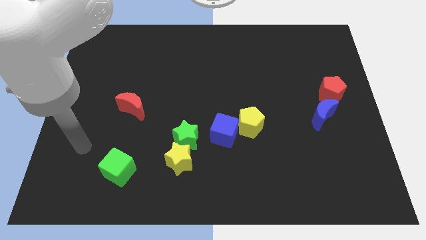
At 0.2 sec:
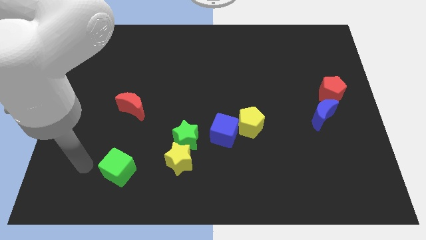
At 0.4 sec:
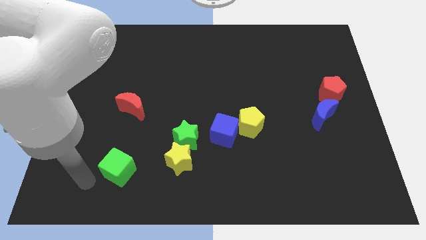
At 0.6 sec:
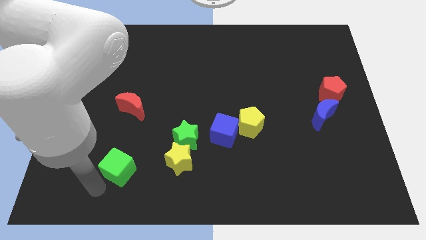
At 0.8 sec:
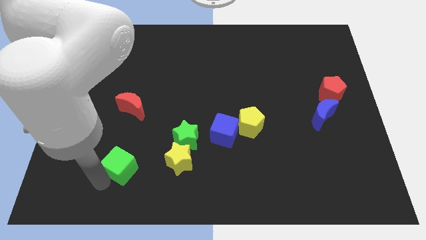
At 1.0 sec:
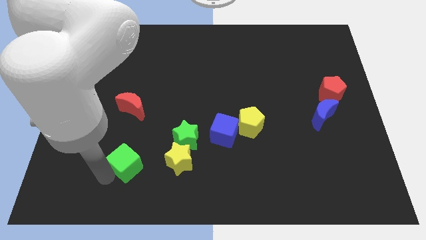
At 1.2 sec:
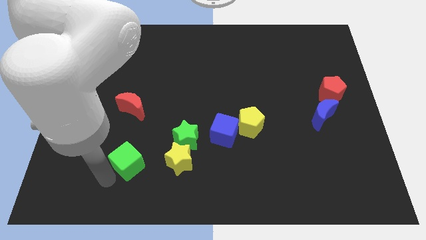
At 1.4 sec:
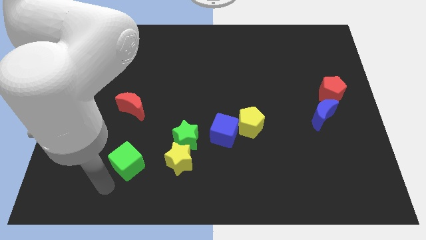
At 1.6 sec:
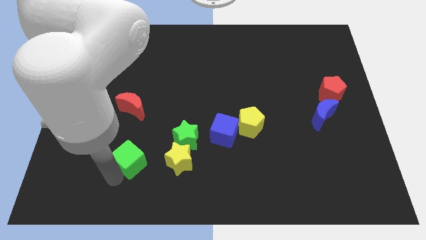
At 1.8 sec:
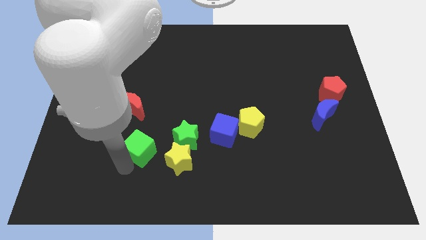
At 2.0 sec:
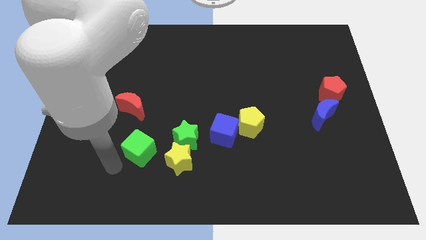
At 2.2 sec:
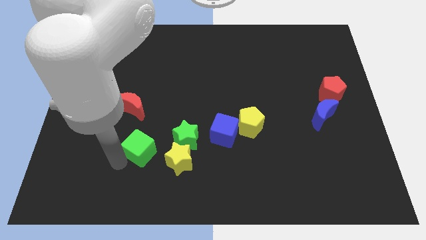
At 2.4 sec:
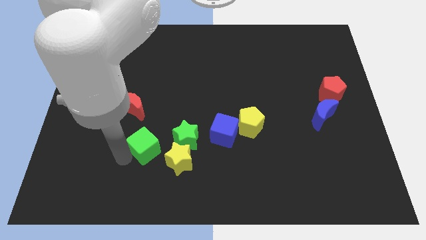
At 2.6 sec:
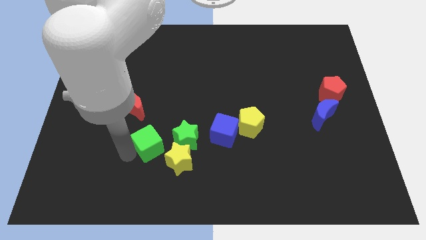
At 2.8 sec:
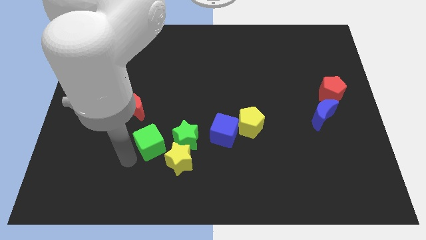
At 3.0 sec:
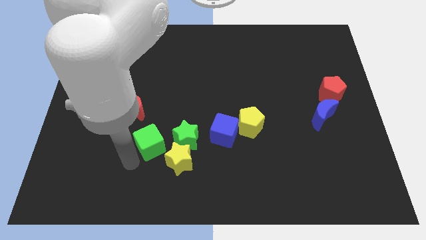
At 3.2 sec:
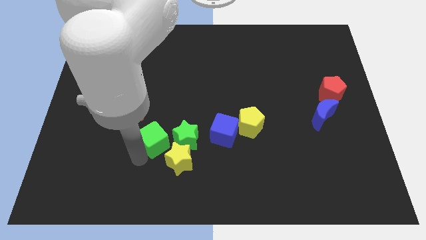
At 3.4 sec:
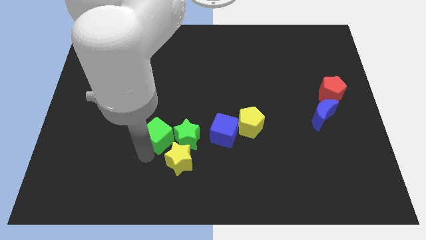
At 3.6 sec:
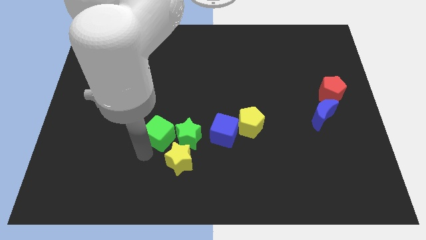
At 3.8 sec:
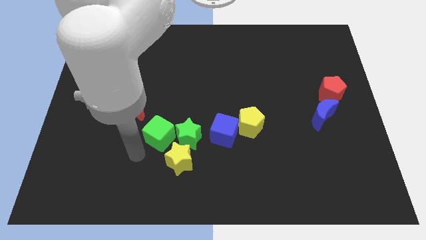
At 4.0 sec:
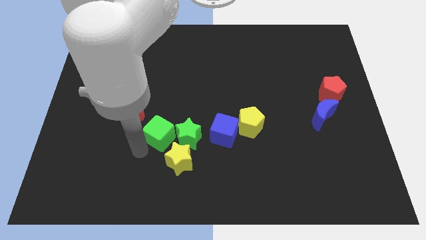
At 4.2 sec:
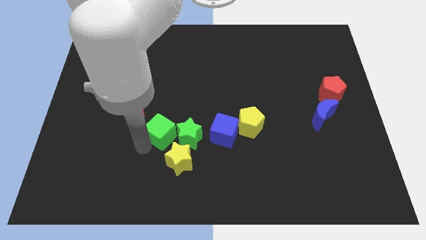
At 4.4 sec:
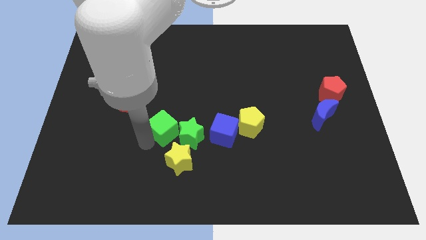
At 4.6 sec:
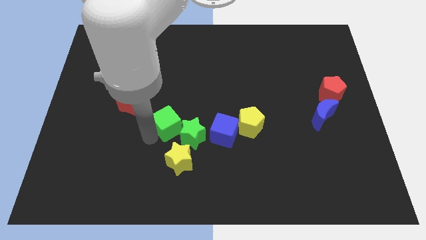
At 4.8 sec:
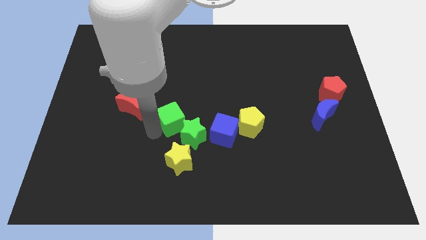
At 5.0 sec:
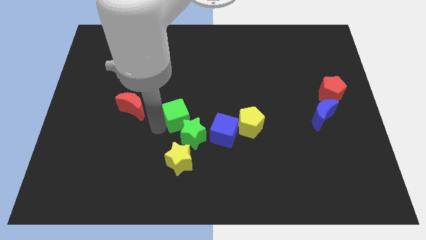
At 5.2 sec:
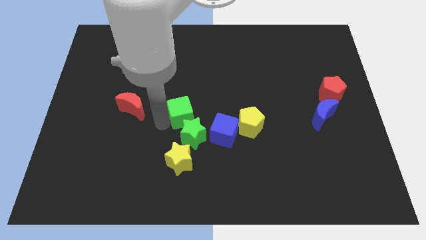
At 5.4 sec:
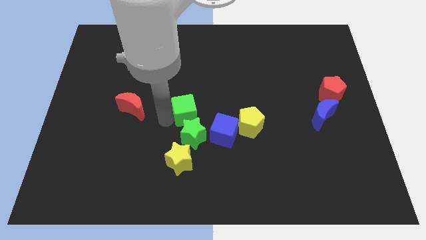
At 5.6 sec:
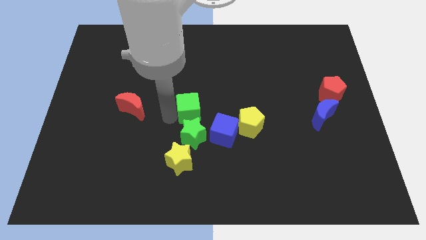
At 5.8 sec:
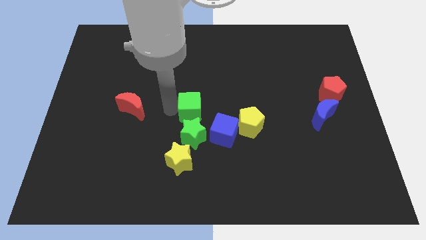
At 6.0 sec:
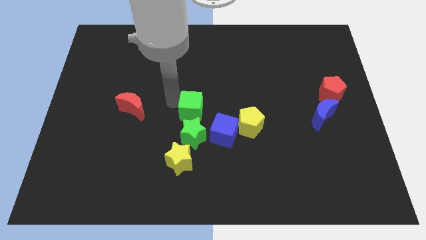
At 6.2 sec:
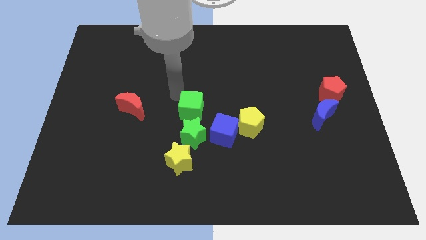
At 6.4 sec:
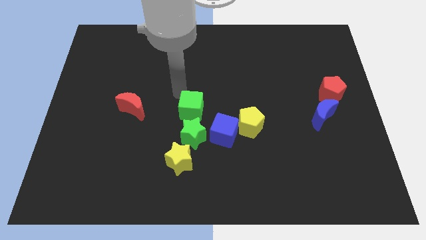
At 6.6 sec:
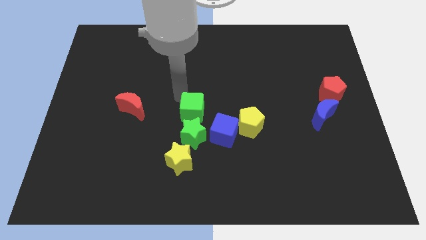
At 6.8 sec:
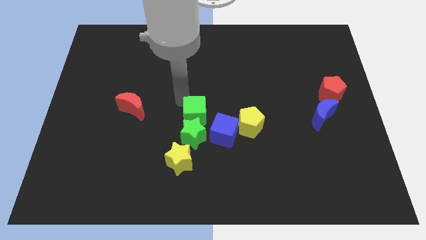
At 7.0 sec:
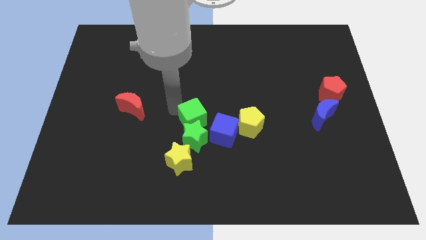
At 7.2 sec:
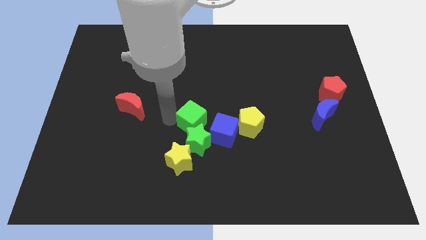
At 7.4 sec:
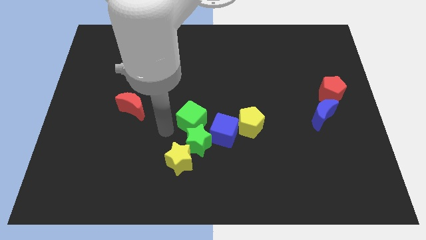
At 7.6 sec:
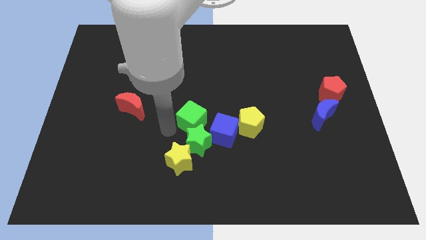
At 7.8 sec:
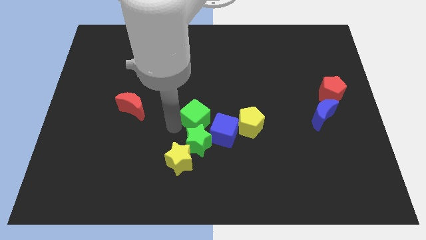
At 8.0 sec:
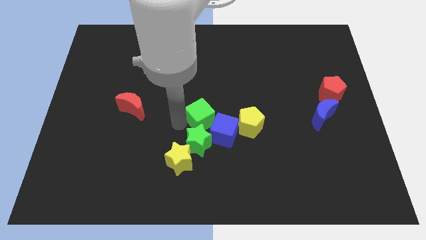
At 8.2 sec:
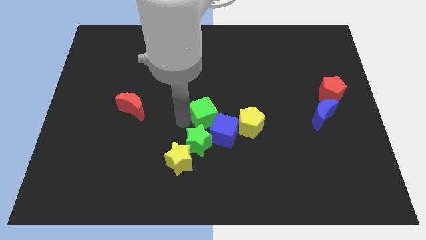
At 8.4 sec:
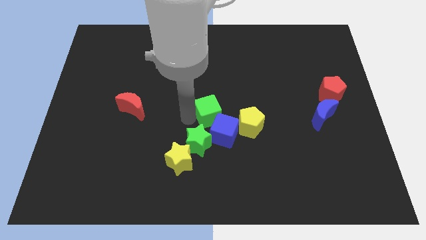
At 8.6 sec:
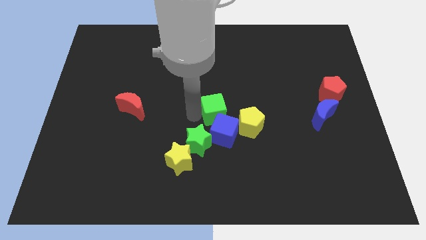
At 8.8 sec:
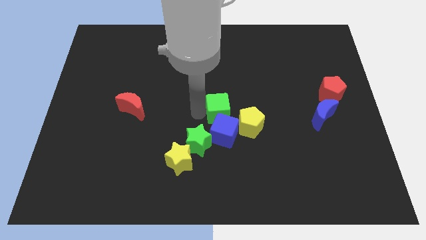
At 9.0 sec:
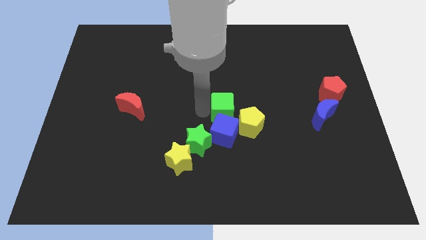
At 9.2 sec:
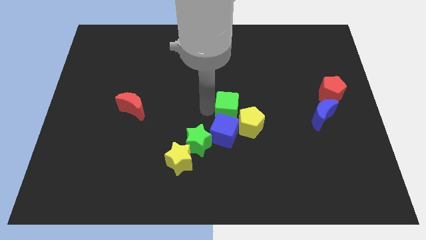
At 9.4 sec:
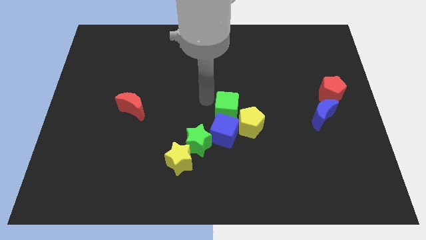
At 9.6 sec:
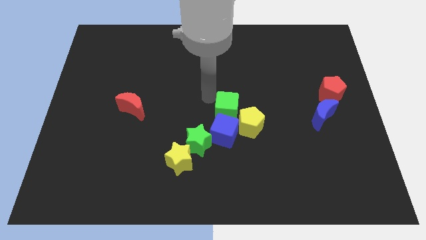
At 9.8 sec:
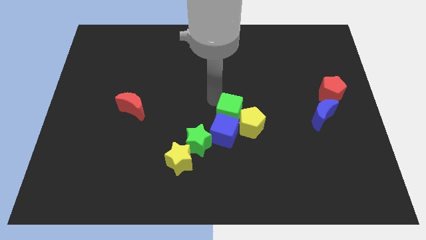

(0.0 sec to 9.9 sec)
move the green cube towards the yellow pentagon

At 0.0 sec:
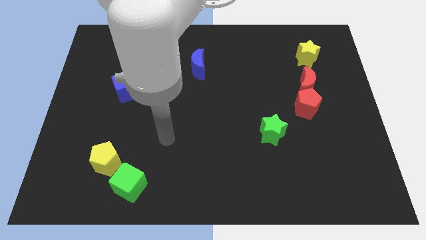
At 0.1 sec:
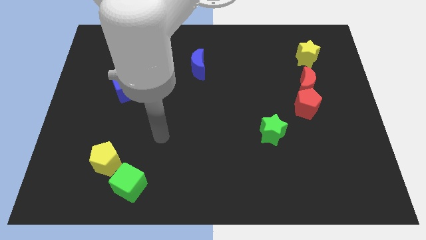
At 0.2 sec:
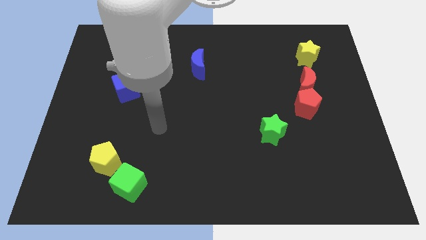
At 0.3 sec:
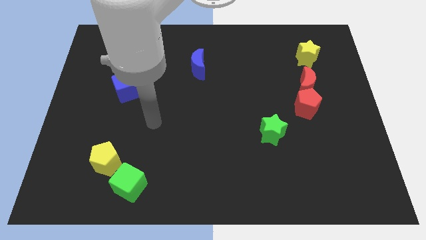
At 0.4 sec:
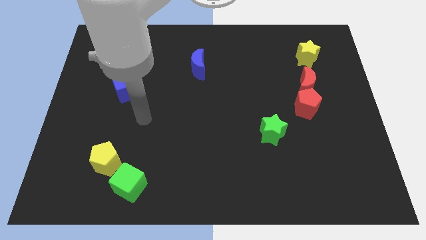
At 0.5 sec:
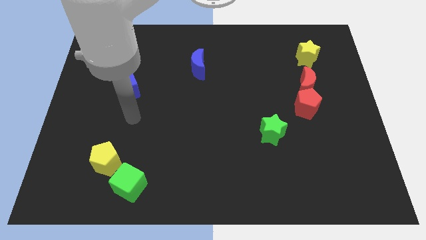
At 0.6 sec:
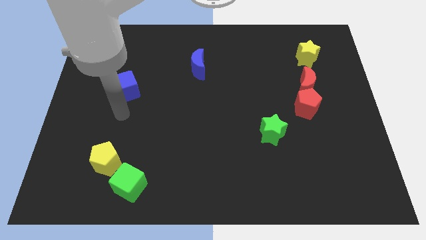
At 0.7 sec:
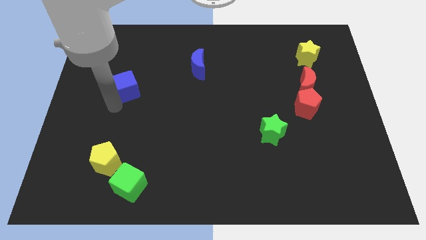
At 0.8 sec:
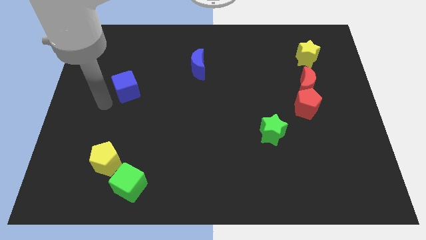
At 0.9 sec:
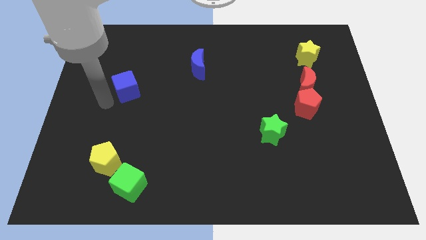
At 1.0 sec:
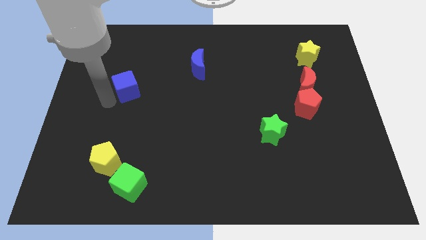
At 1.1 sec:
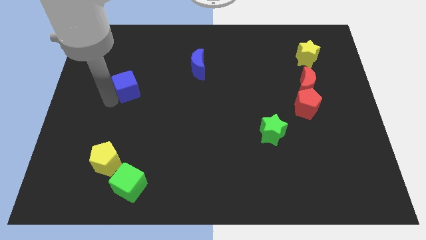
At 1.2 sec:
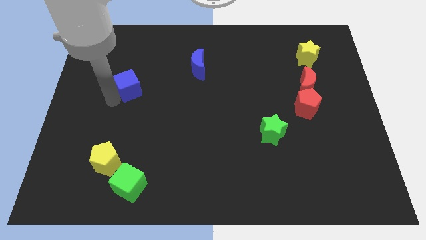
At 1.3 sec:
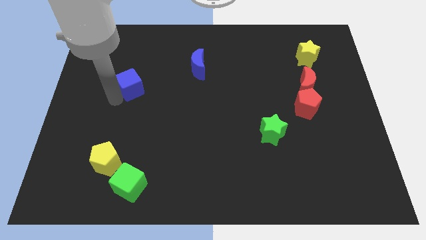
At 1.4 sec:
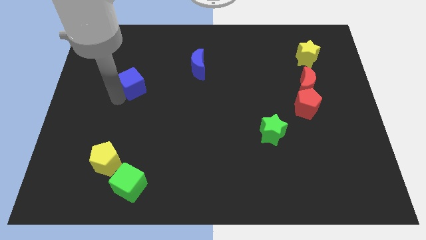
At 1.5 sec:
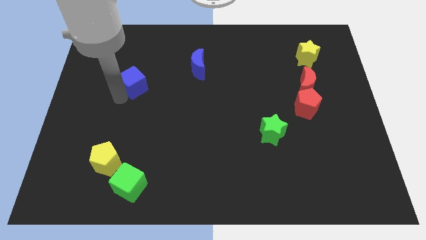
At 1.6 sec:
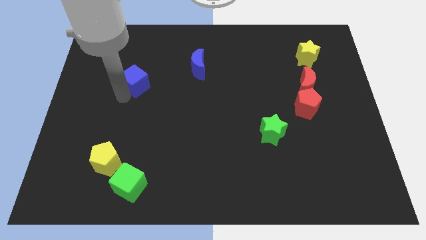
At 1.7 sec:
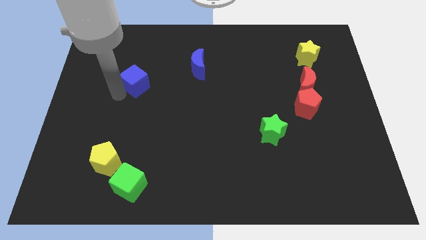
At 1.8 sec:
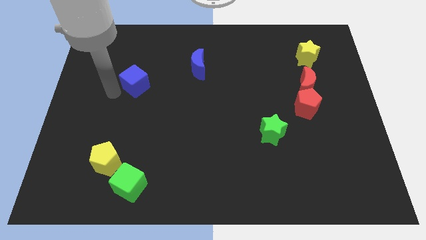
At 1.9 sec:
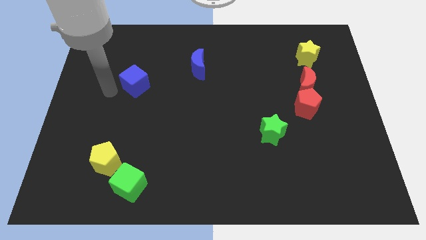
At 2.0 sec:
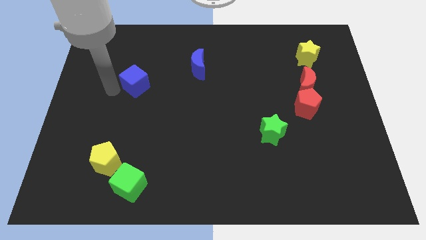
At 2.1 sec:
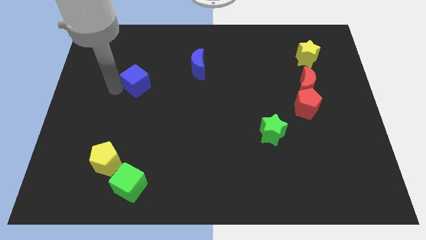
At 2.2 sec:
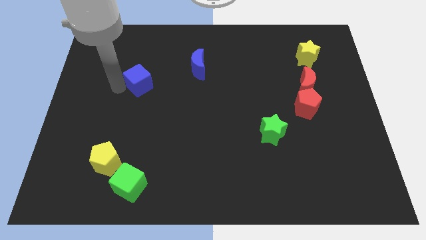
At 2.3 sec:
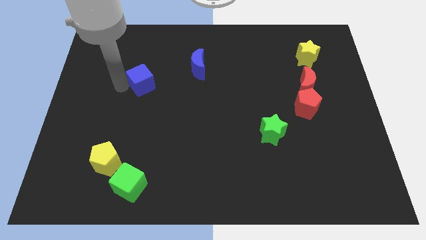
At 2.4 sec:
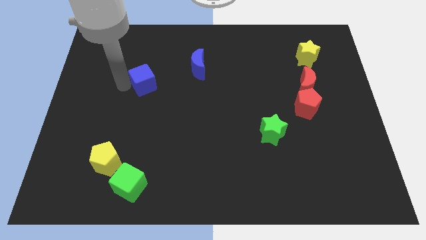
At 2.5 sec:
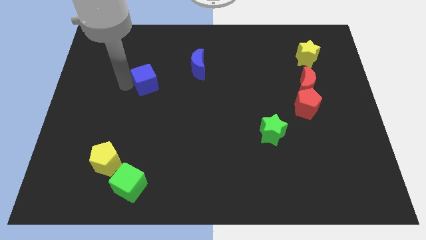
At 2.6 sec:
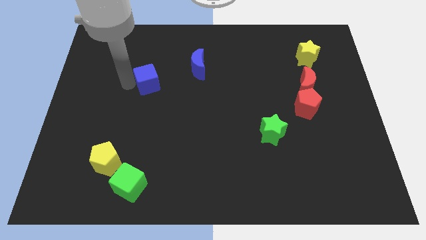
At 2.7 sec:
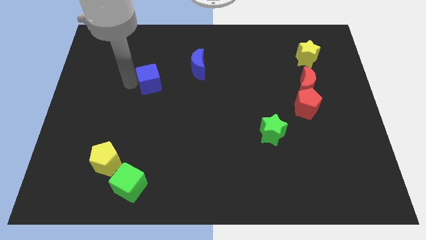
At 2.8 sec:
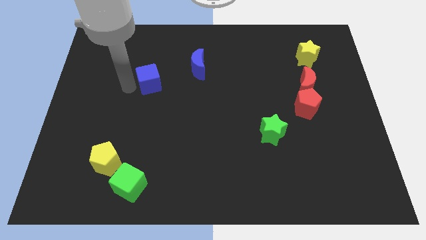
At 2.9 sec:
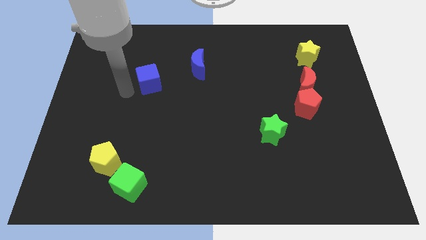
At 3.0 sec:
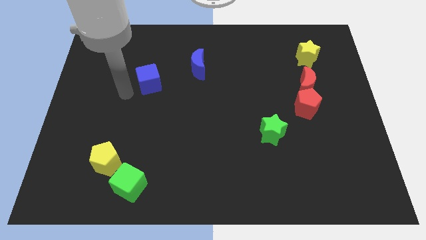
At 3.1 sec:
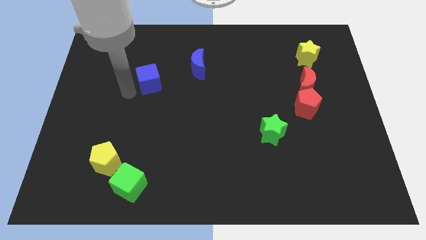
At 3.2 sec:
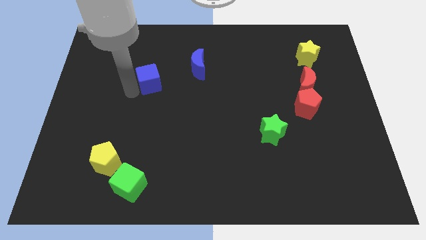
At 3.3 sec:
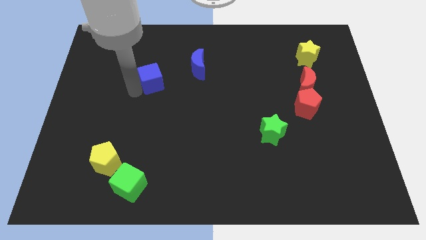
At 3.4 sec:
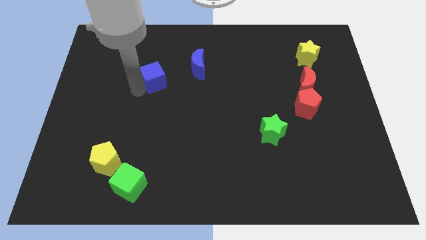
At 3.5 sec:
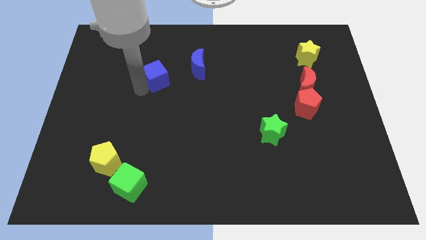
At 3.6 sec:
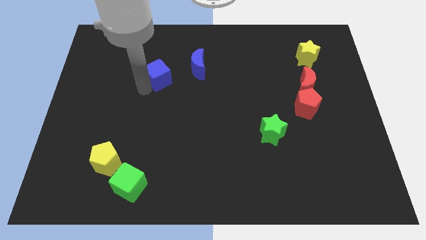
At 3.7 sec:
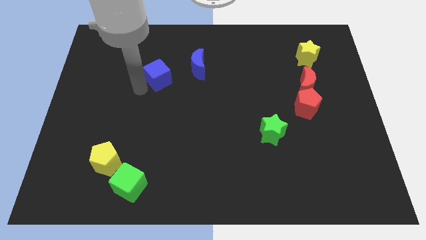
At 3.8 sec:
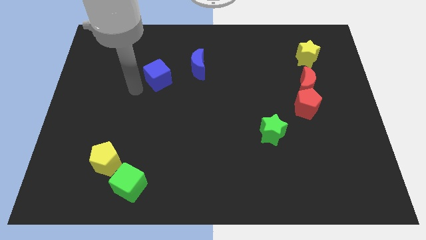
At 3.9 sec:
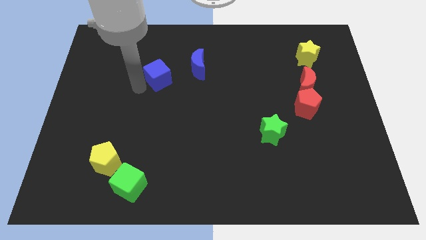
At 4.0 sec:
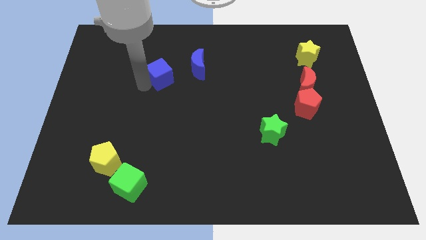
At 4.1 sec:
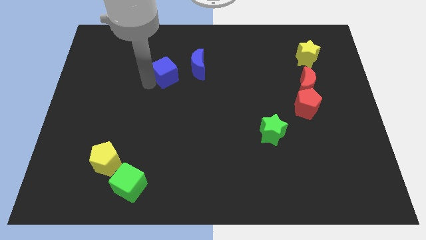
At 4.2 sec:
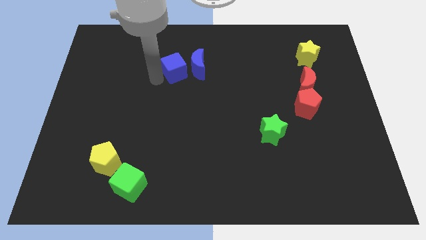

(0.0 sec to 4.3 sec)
move the blue cube towards the blue moon
